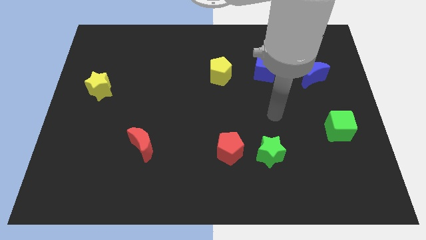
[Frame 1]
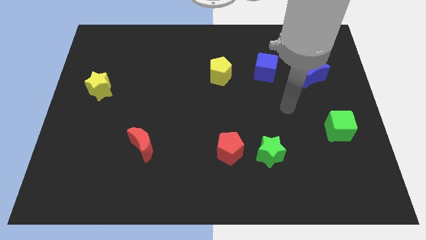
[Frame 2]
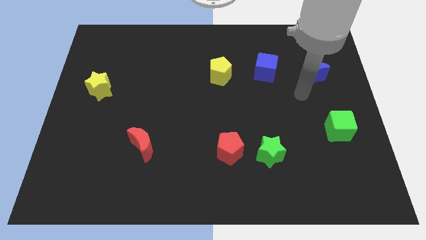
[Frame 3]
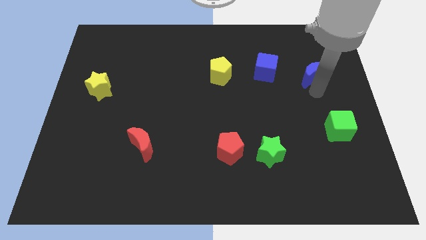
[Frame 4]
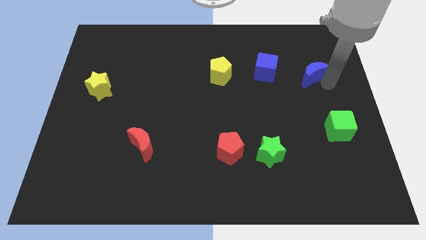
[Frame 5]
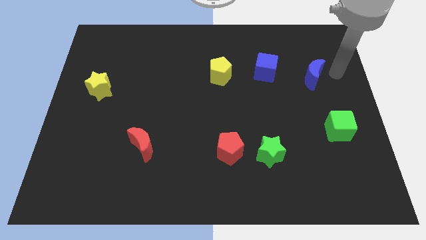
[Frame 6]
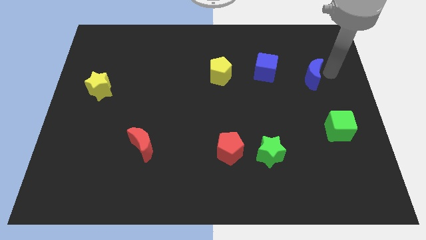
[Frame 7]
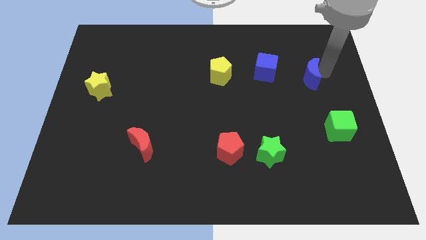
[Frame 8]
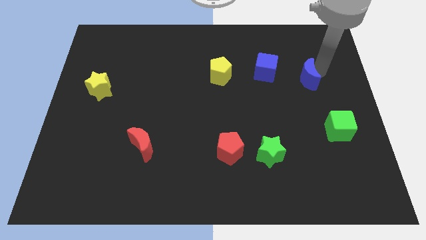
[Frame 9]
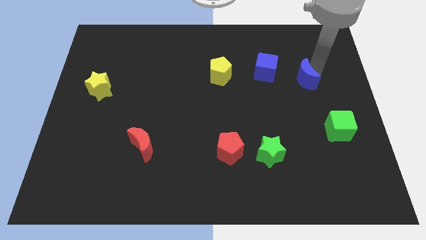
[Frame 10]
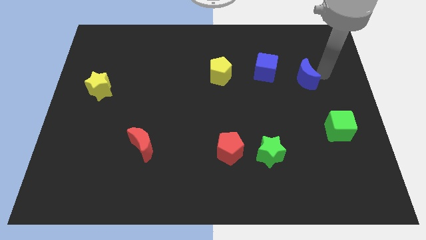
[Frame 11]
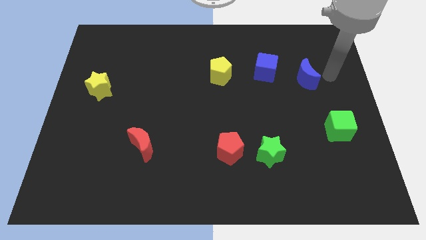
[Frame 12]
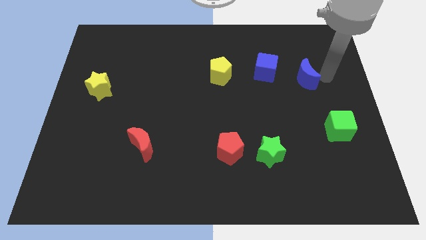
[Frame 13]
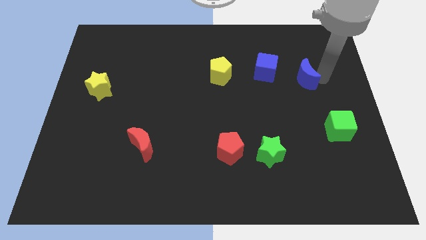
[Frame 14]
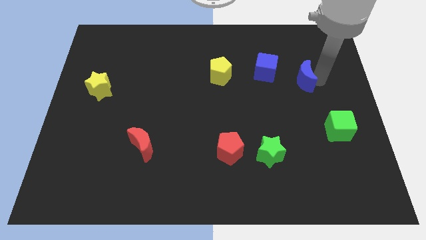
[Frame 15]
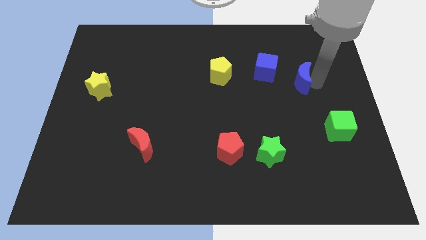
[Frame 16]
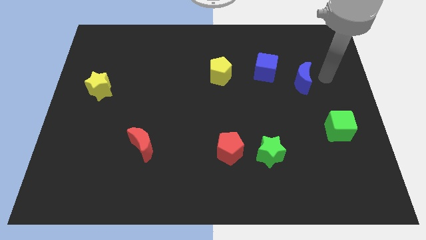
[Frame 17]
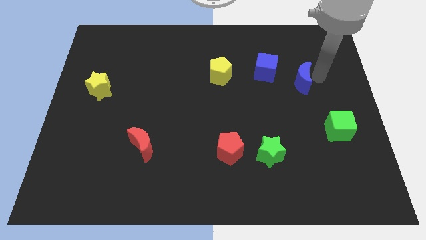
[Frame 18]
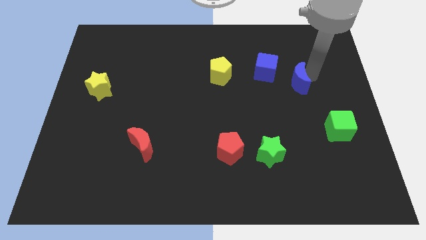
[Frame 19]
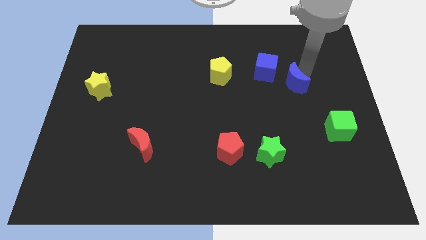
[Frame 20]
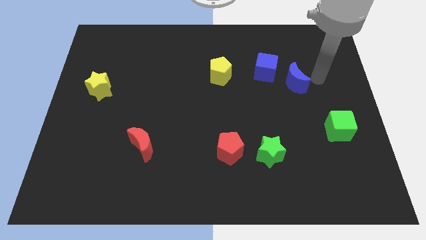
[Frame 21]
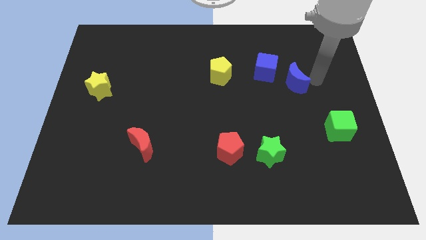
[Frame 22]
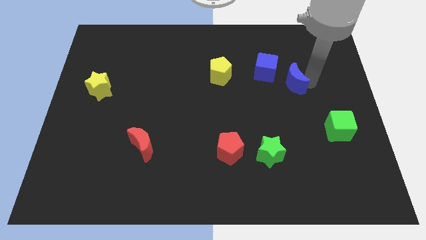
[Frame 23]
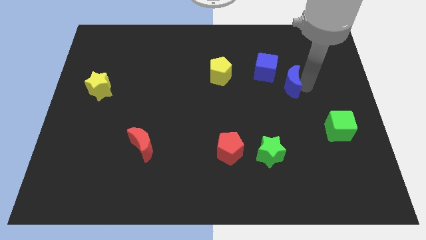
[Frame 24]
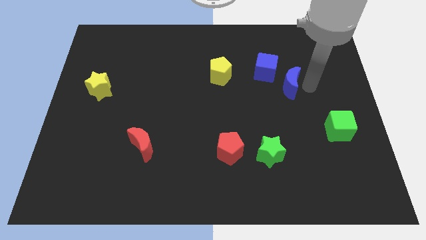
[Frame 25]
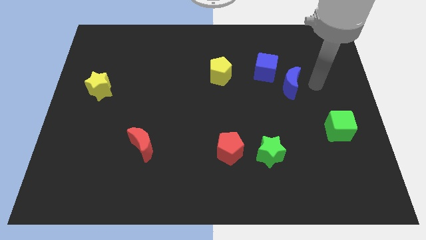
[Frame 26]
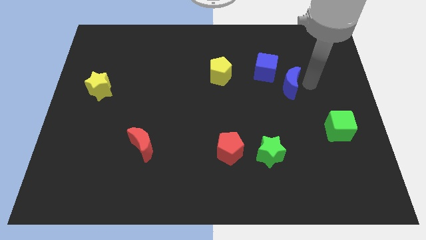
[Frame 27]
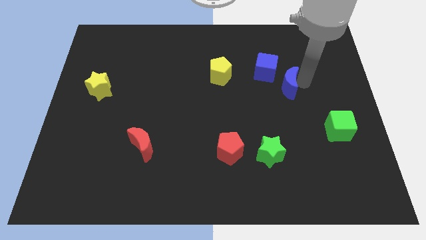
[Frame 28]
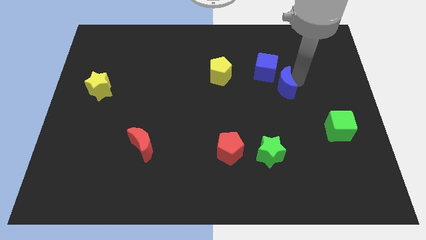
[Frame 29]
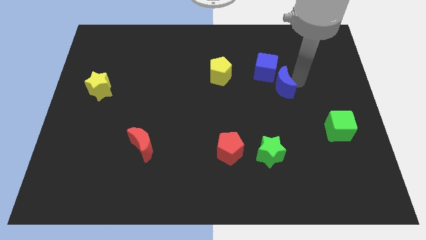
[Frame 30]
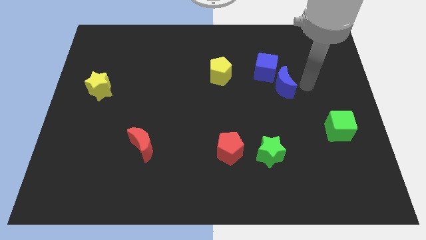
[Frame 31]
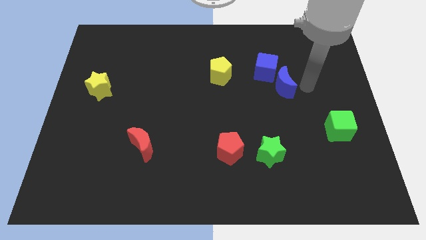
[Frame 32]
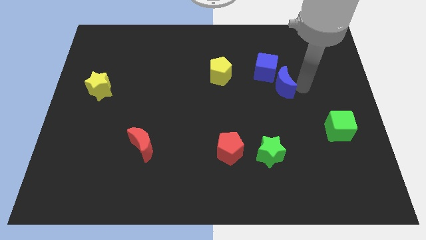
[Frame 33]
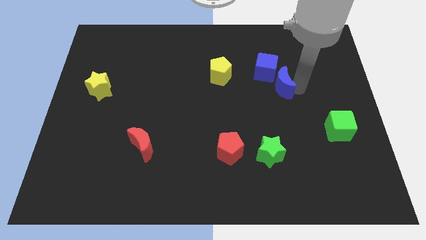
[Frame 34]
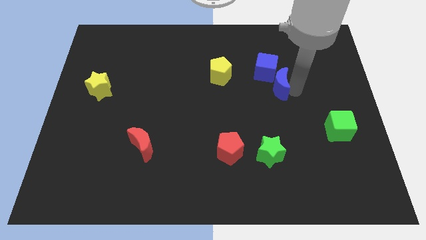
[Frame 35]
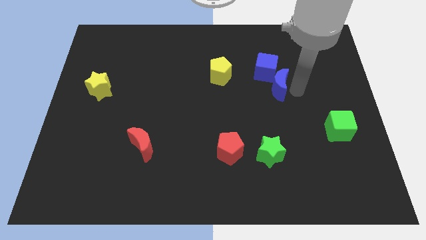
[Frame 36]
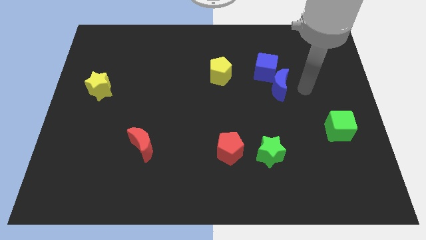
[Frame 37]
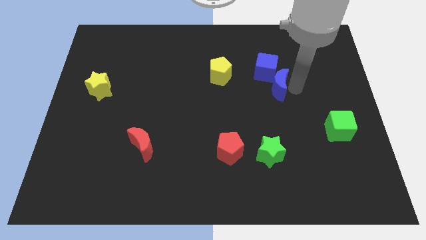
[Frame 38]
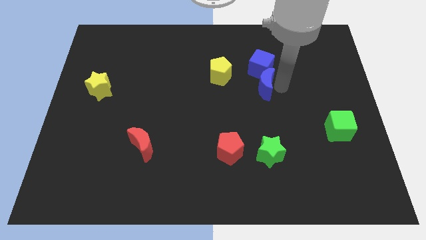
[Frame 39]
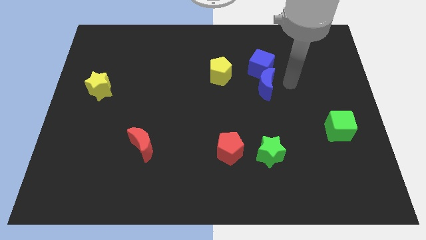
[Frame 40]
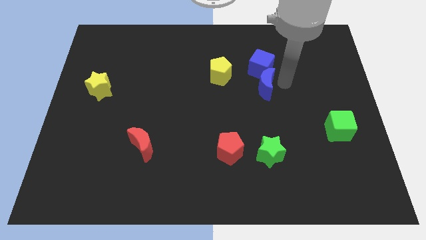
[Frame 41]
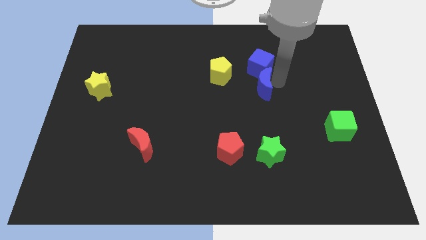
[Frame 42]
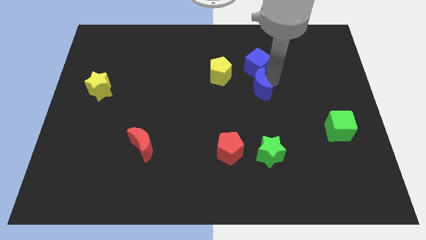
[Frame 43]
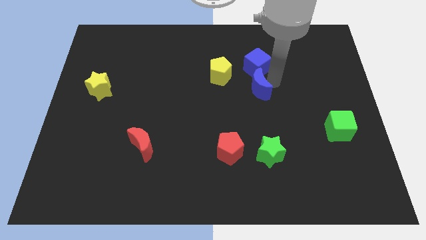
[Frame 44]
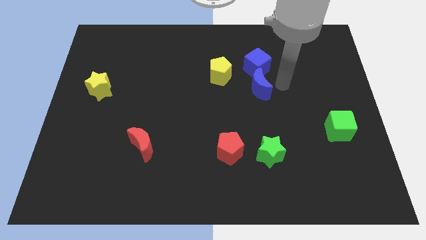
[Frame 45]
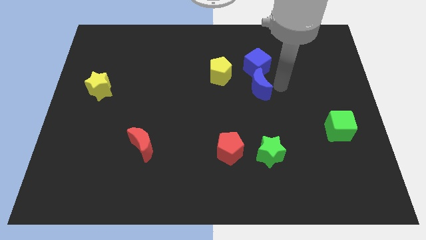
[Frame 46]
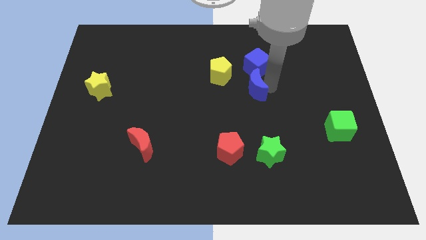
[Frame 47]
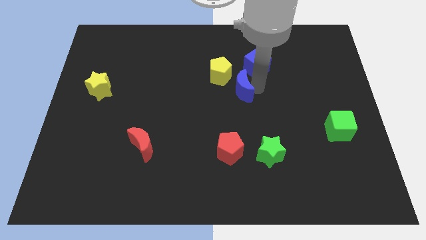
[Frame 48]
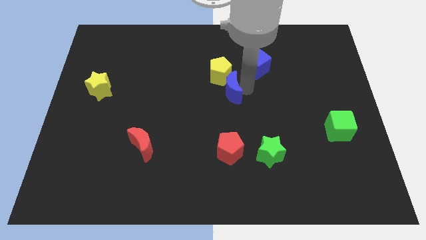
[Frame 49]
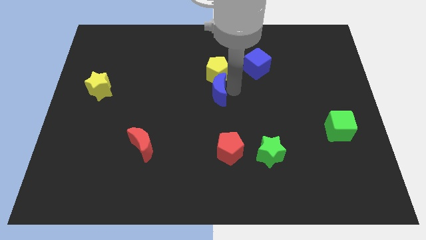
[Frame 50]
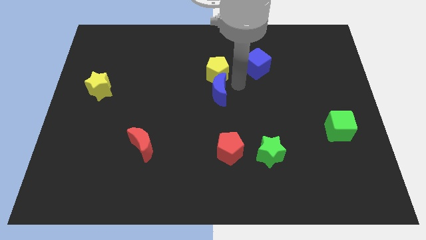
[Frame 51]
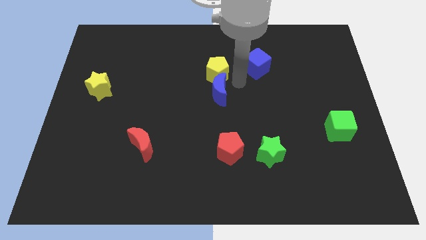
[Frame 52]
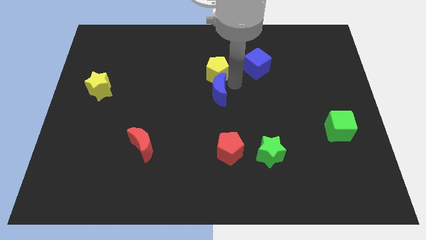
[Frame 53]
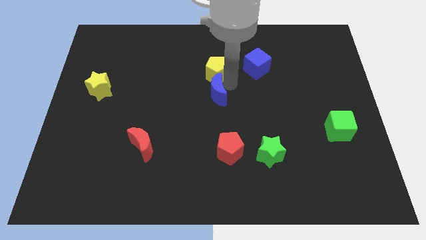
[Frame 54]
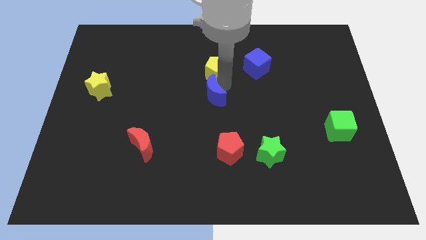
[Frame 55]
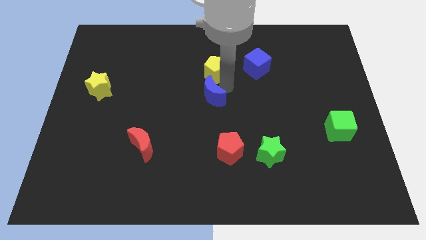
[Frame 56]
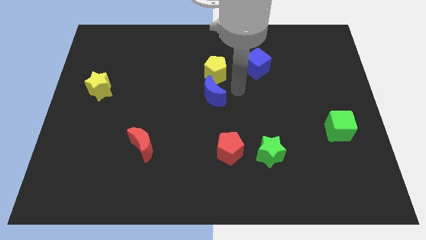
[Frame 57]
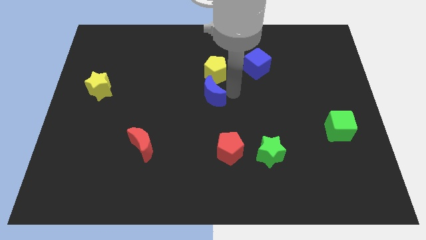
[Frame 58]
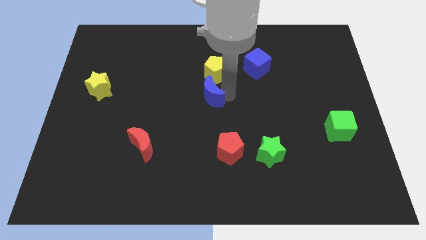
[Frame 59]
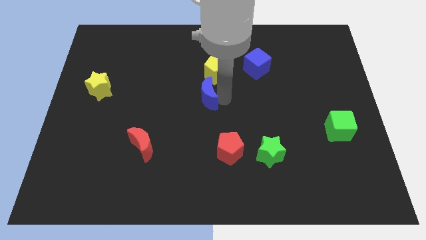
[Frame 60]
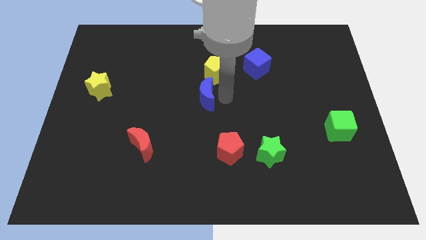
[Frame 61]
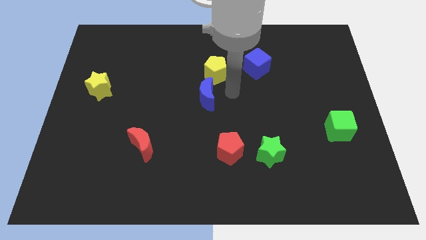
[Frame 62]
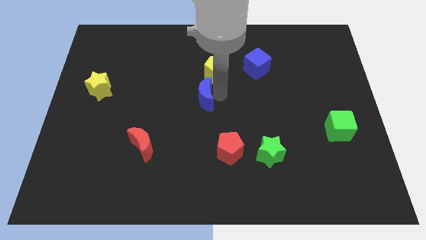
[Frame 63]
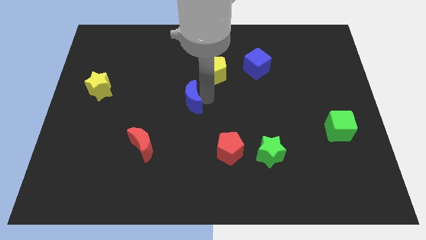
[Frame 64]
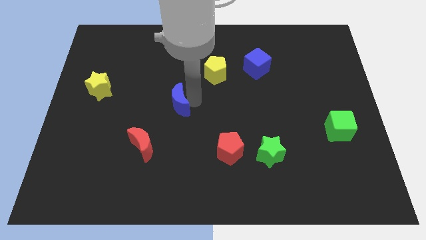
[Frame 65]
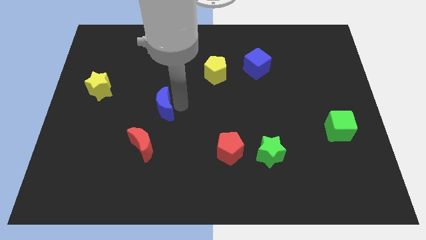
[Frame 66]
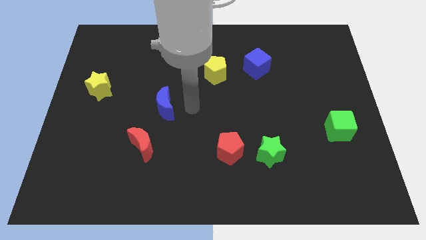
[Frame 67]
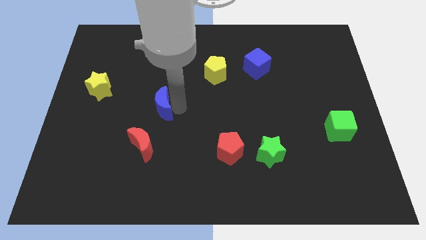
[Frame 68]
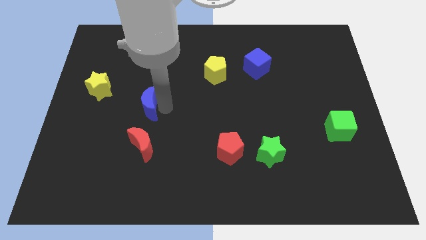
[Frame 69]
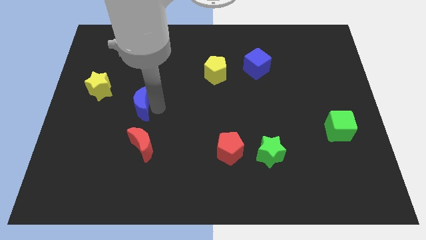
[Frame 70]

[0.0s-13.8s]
slide the blue moon to the bottom right of the yellow star

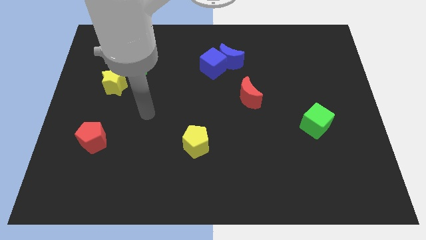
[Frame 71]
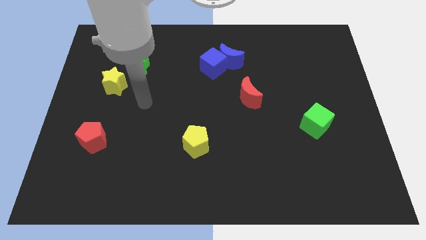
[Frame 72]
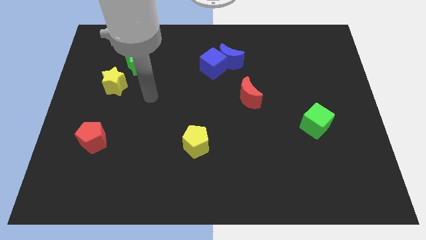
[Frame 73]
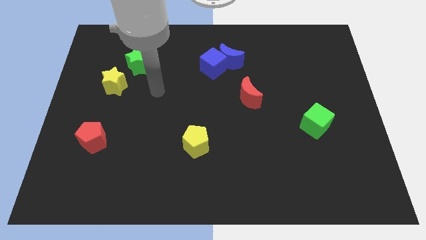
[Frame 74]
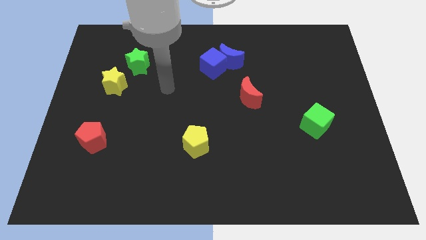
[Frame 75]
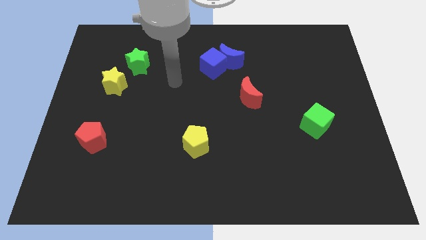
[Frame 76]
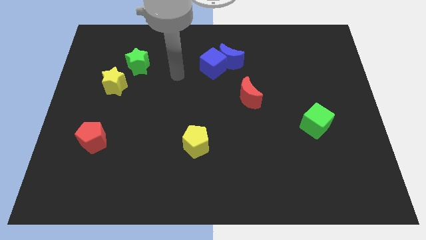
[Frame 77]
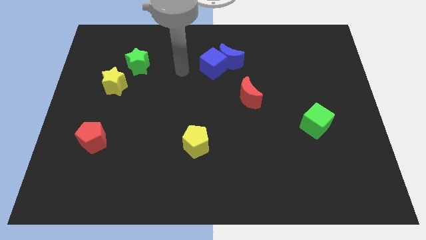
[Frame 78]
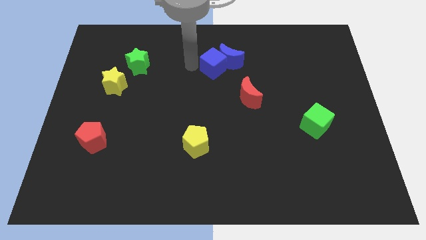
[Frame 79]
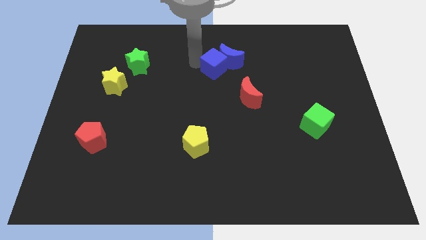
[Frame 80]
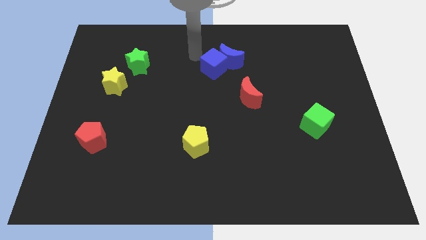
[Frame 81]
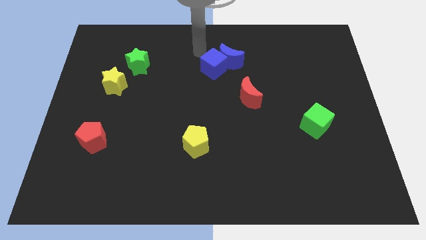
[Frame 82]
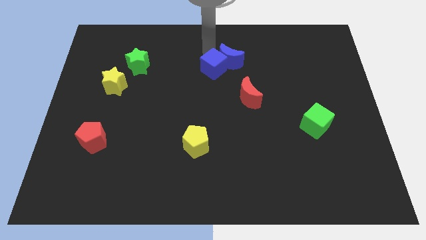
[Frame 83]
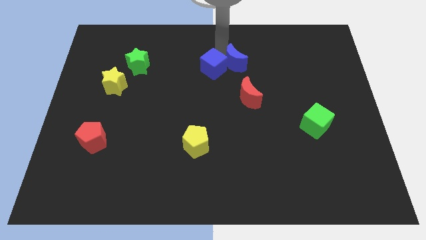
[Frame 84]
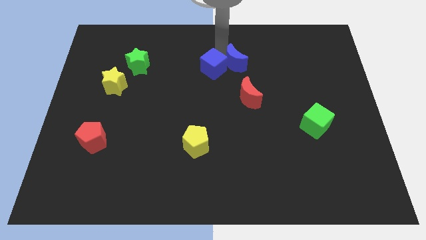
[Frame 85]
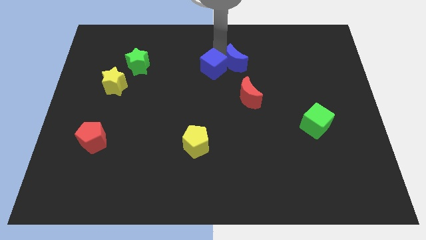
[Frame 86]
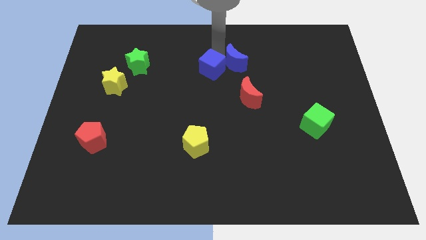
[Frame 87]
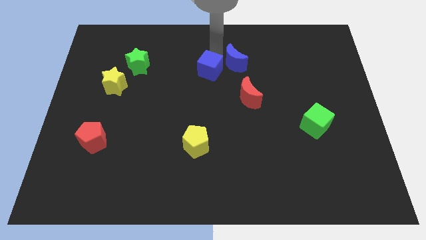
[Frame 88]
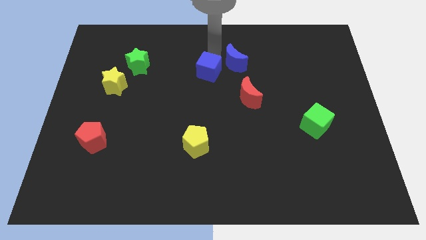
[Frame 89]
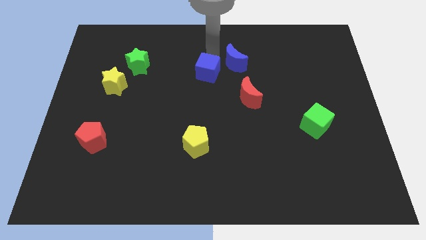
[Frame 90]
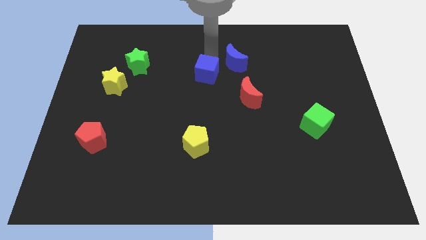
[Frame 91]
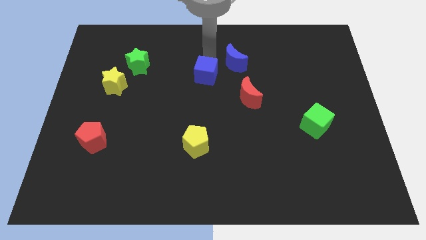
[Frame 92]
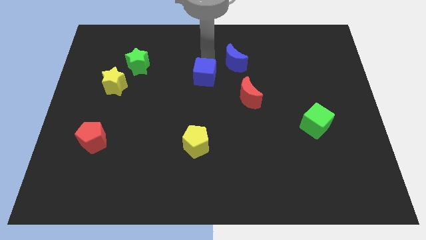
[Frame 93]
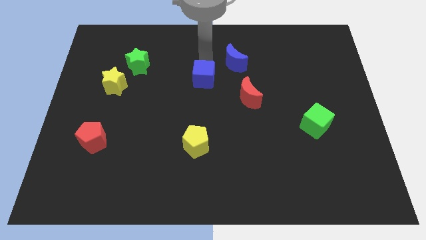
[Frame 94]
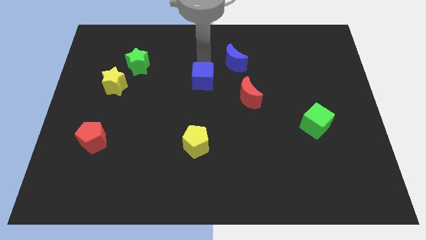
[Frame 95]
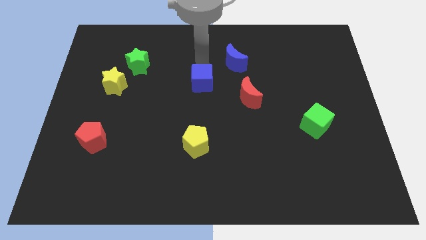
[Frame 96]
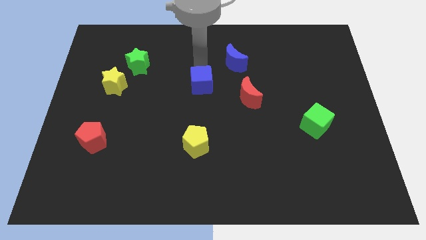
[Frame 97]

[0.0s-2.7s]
put the blue cube to the left of the red moon
